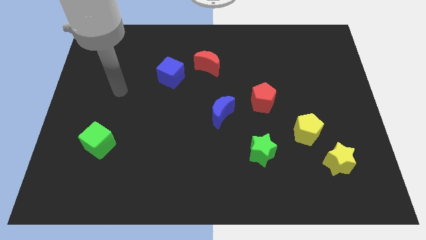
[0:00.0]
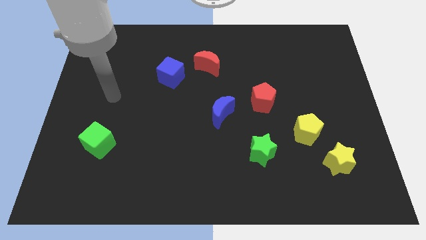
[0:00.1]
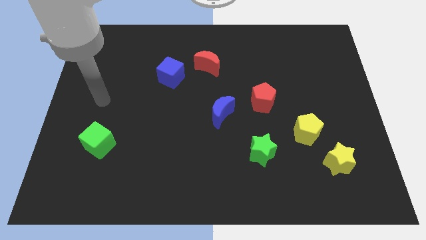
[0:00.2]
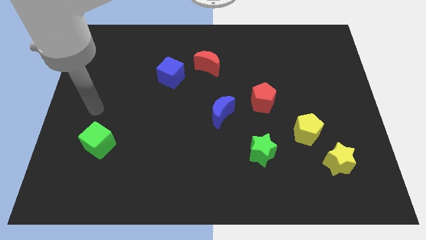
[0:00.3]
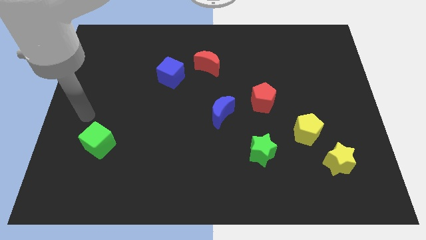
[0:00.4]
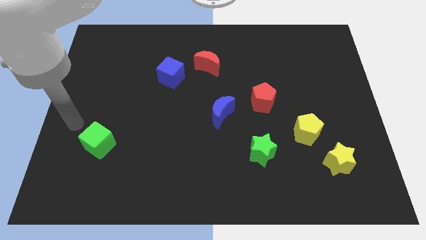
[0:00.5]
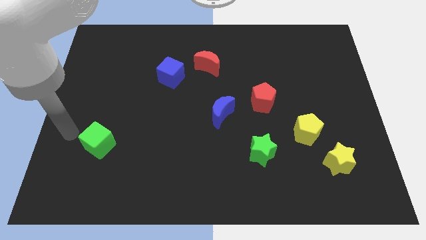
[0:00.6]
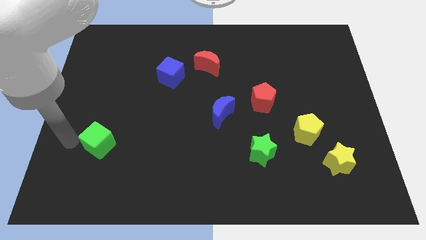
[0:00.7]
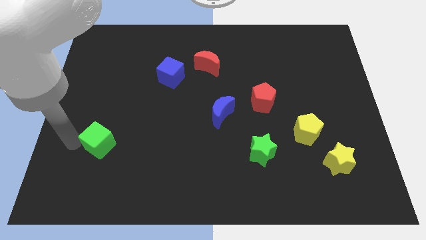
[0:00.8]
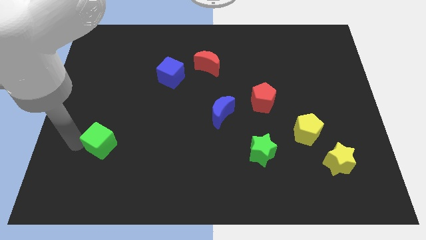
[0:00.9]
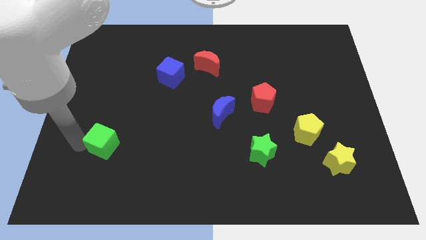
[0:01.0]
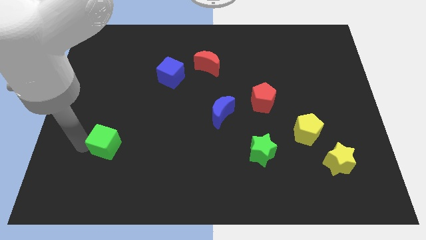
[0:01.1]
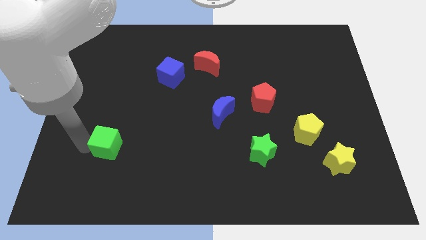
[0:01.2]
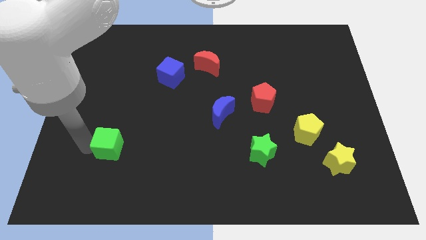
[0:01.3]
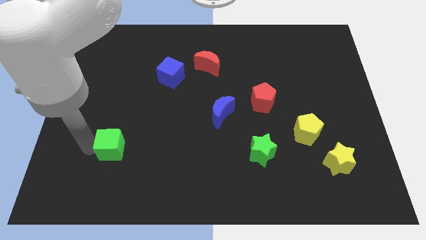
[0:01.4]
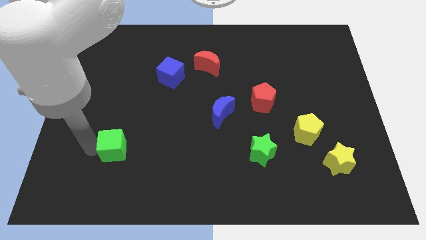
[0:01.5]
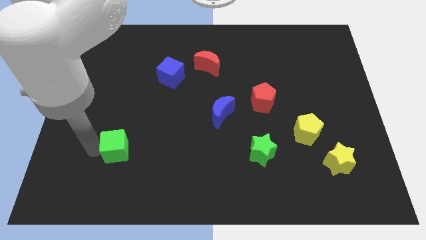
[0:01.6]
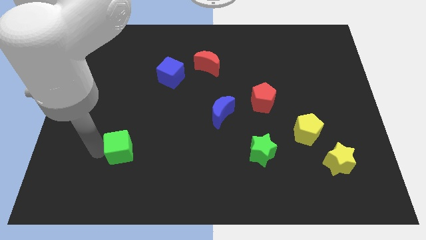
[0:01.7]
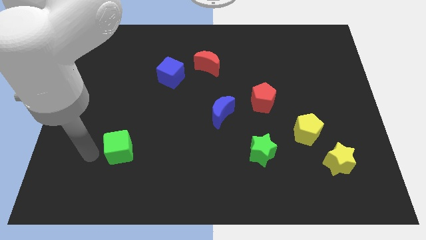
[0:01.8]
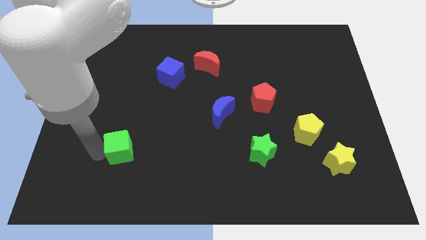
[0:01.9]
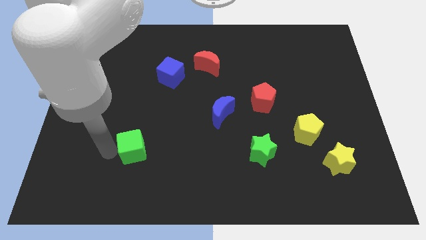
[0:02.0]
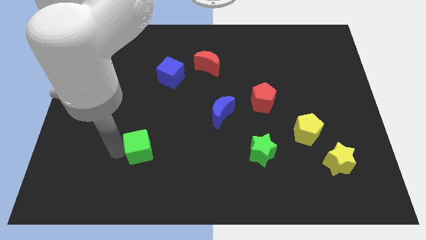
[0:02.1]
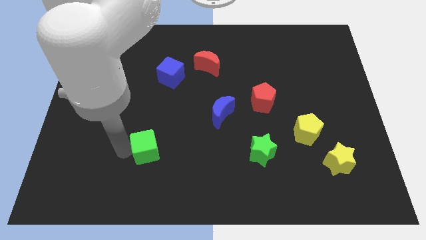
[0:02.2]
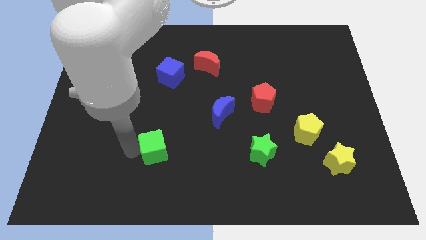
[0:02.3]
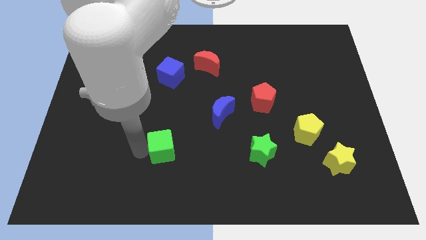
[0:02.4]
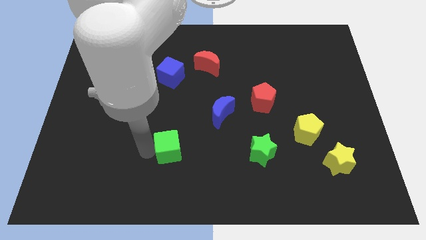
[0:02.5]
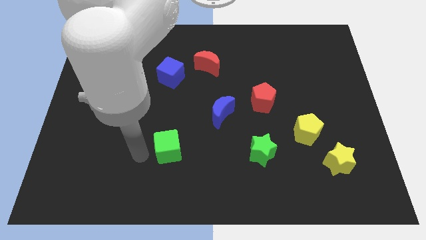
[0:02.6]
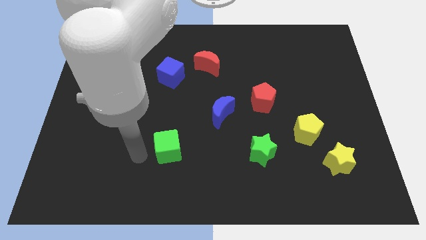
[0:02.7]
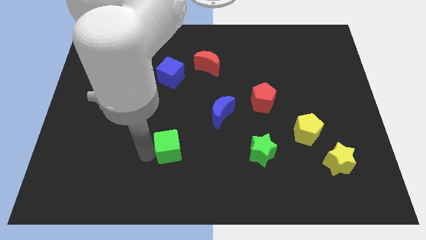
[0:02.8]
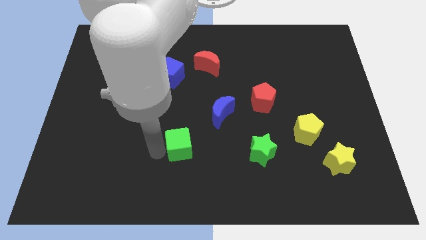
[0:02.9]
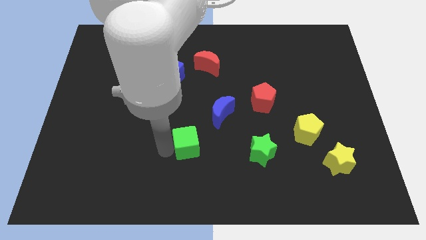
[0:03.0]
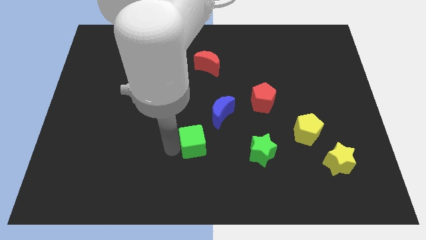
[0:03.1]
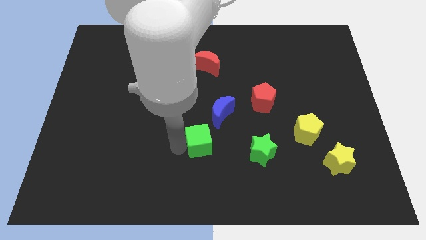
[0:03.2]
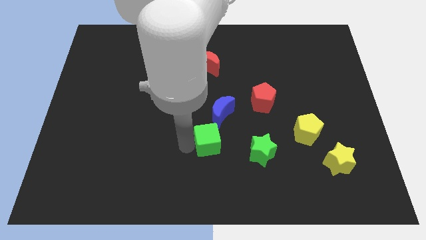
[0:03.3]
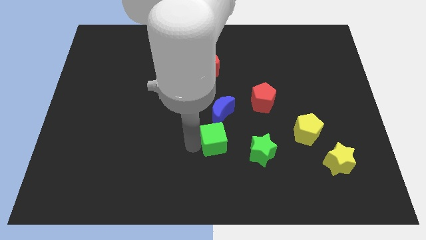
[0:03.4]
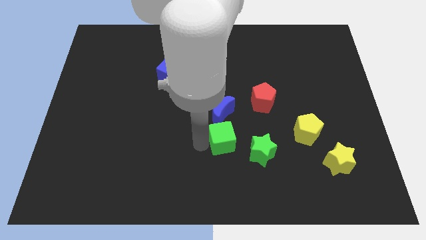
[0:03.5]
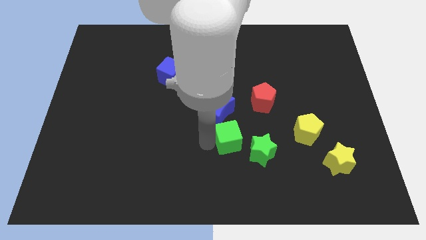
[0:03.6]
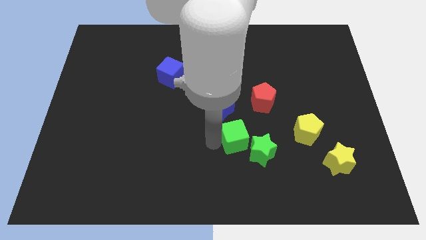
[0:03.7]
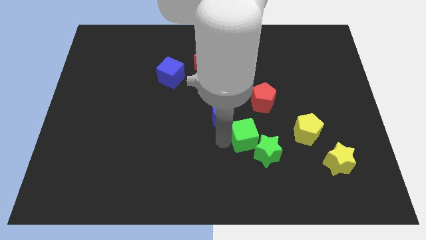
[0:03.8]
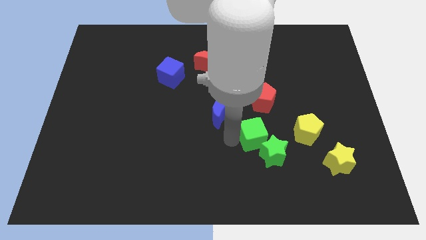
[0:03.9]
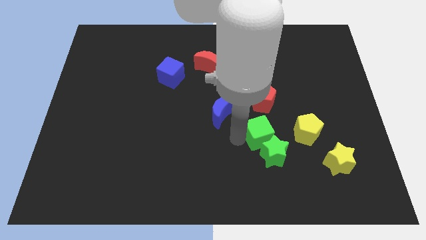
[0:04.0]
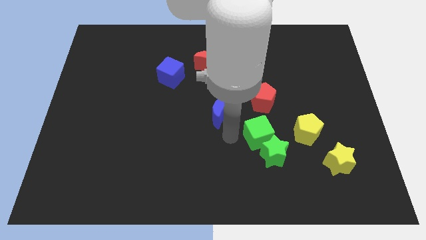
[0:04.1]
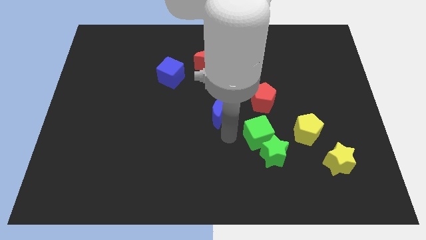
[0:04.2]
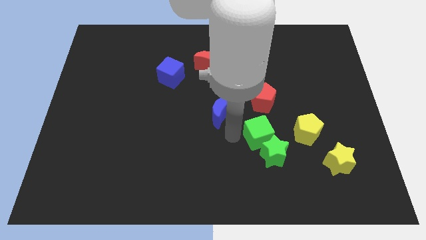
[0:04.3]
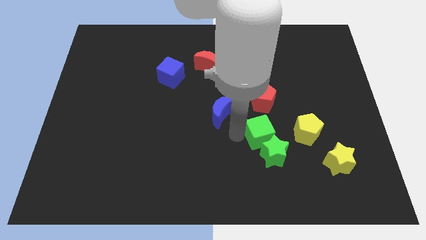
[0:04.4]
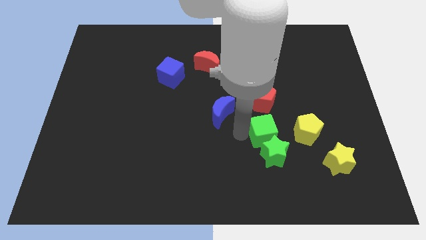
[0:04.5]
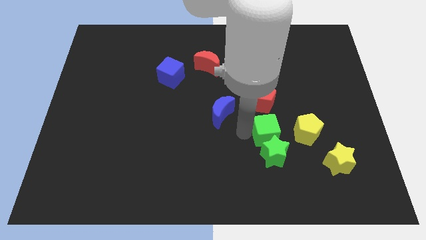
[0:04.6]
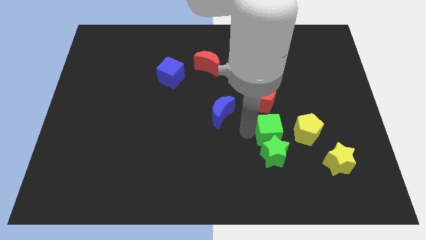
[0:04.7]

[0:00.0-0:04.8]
put the green cube to the top right side of the green star

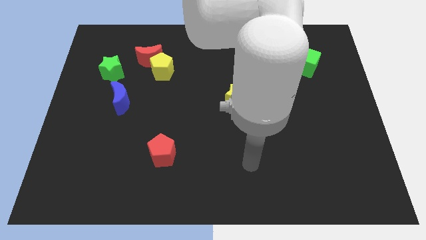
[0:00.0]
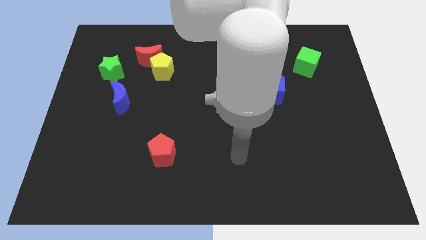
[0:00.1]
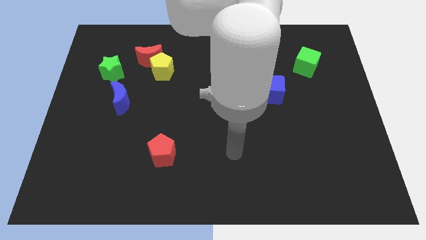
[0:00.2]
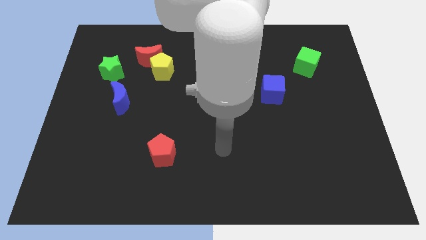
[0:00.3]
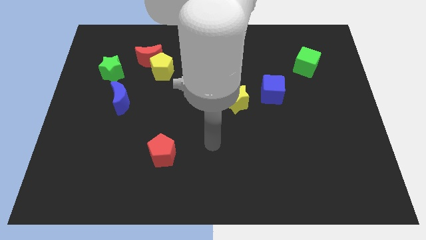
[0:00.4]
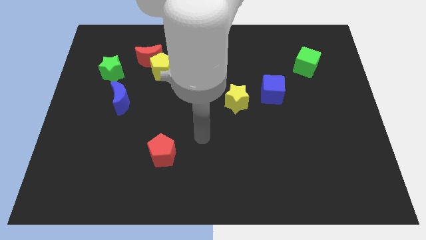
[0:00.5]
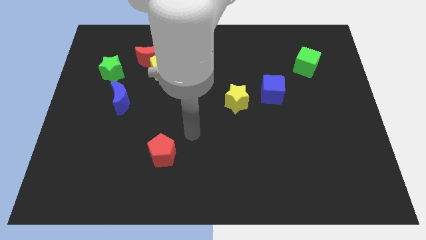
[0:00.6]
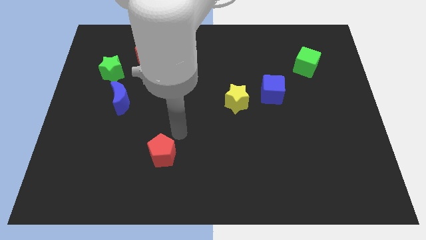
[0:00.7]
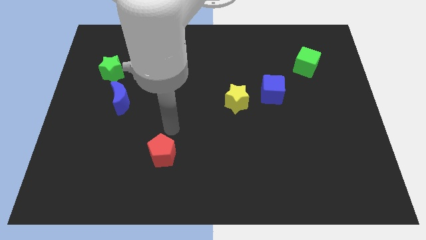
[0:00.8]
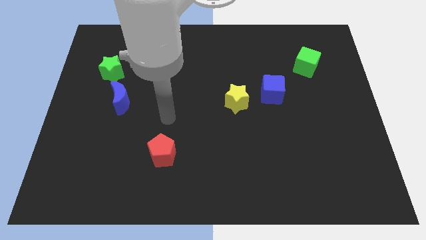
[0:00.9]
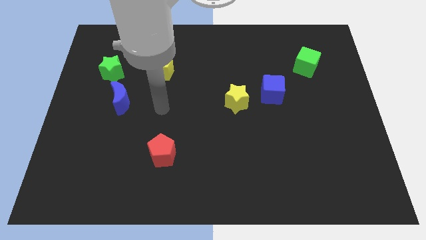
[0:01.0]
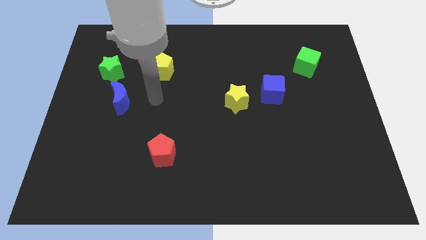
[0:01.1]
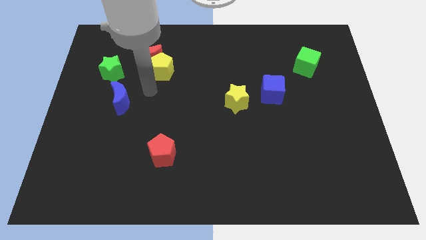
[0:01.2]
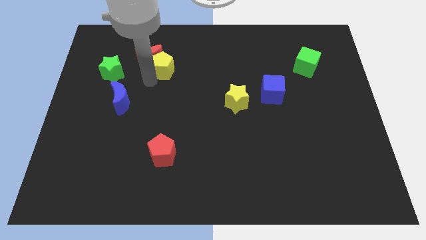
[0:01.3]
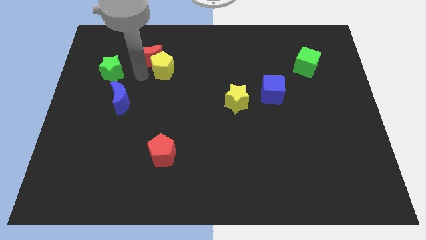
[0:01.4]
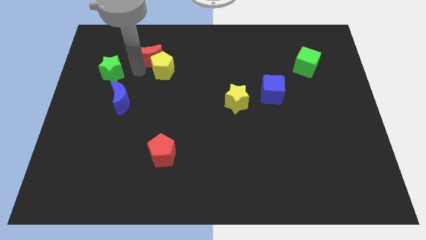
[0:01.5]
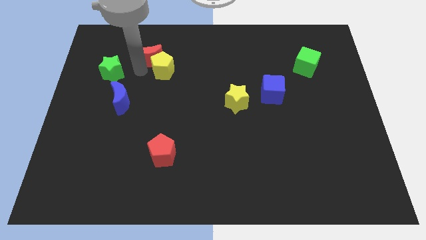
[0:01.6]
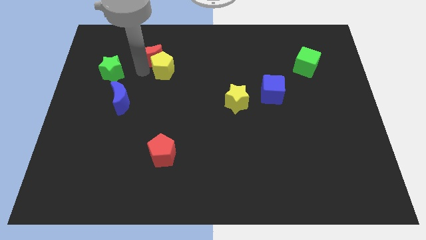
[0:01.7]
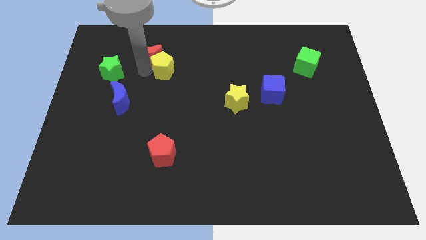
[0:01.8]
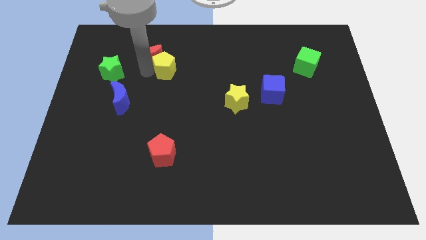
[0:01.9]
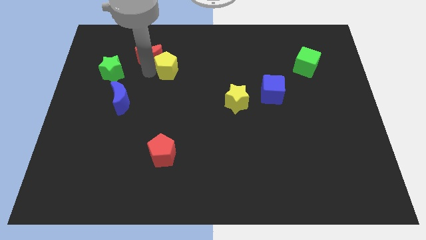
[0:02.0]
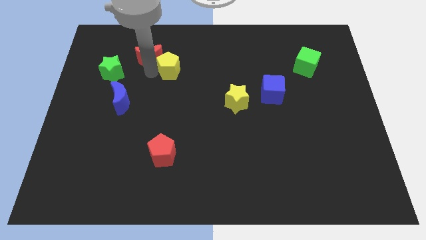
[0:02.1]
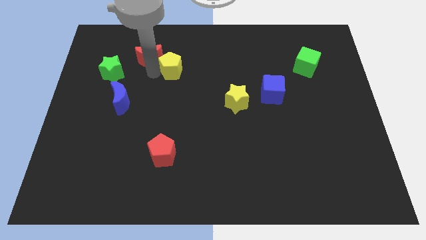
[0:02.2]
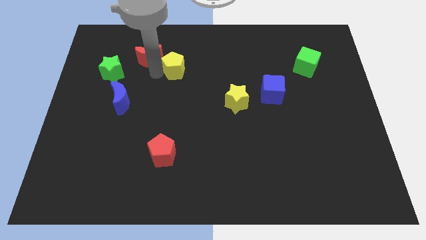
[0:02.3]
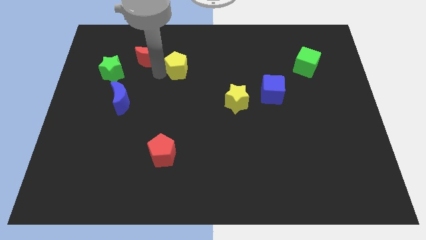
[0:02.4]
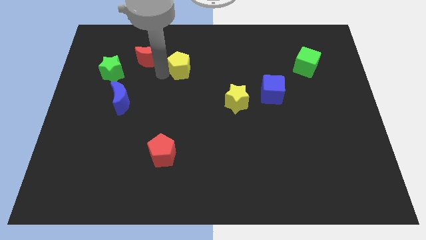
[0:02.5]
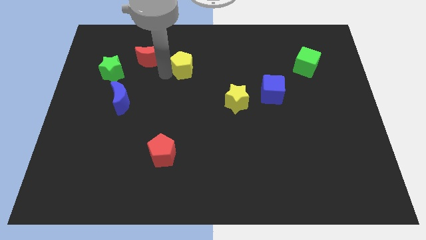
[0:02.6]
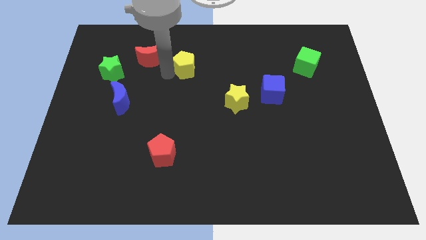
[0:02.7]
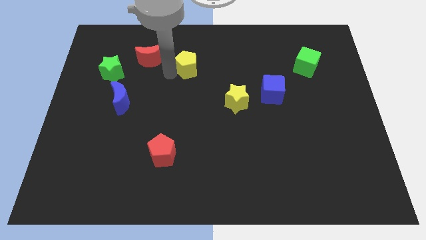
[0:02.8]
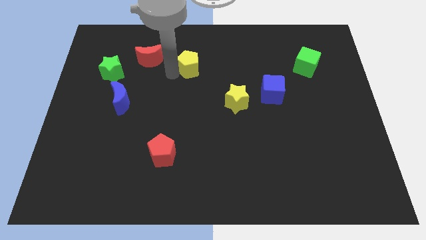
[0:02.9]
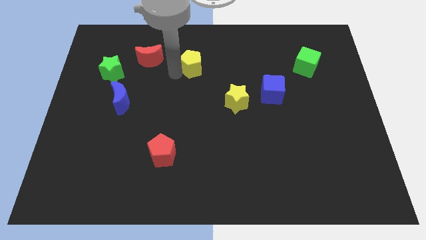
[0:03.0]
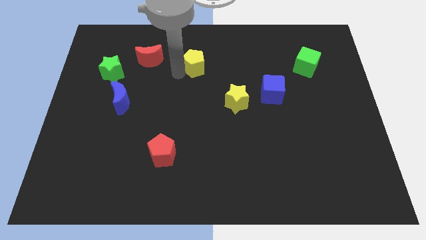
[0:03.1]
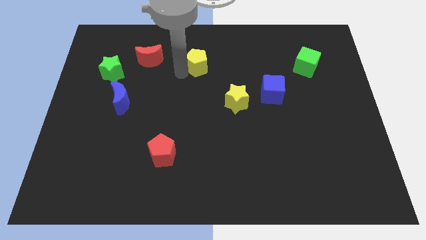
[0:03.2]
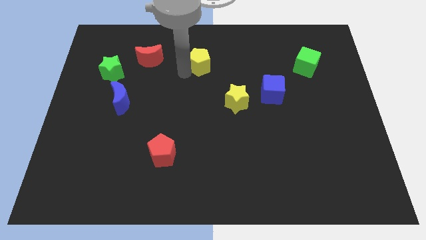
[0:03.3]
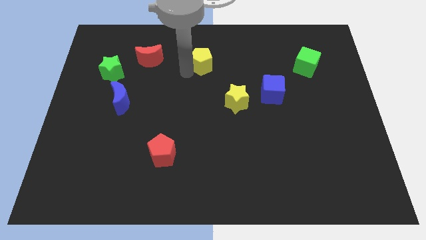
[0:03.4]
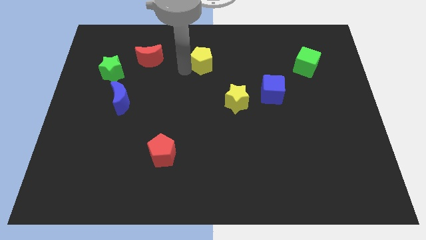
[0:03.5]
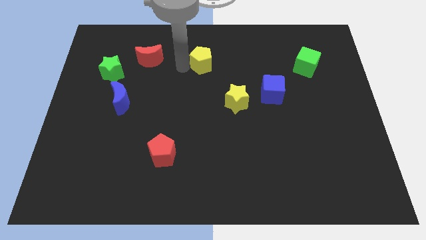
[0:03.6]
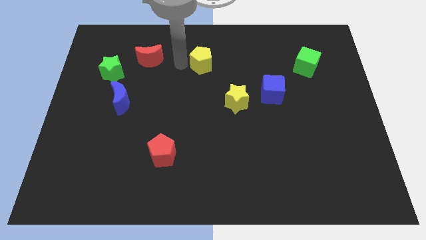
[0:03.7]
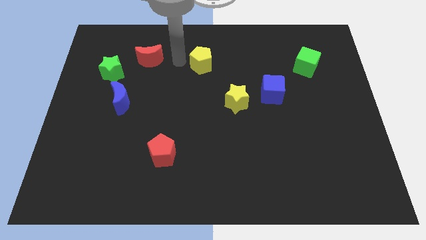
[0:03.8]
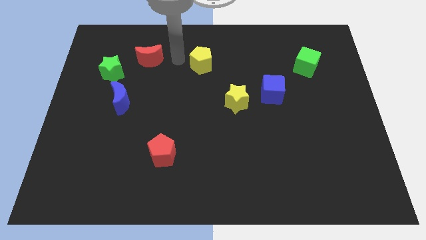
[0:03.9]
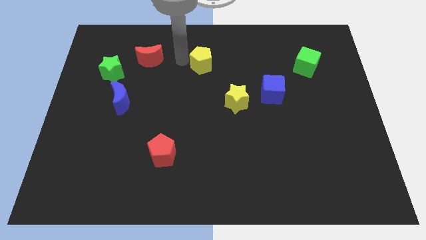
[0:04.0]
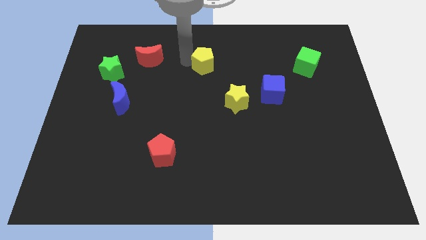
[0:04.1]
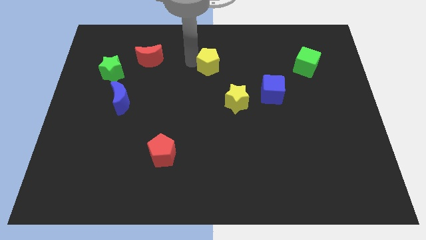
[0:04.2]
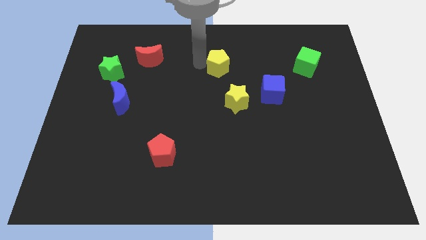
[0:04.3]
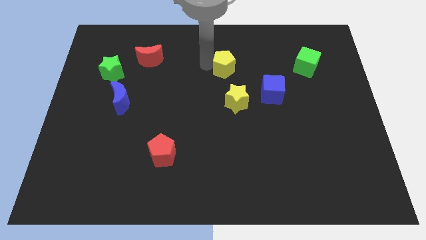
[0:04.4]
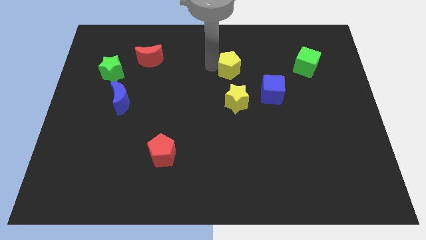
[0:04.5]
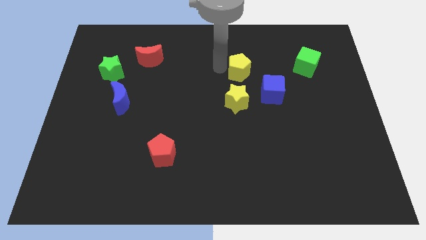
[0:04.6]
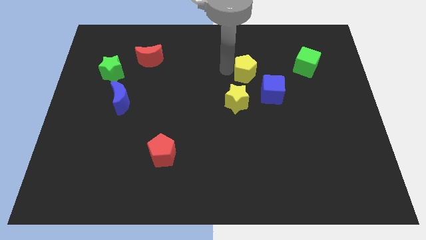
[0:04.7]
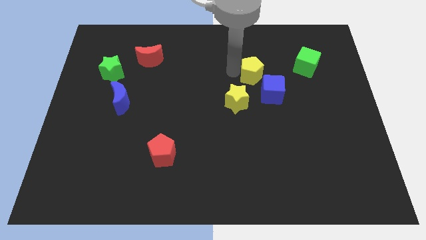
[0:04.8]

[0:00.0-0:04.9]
push the yellow pentagon to the left of the green cube
